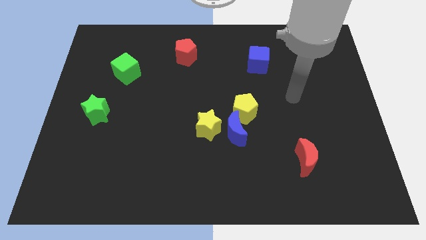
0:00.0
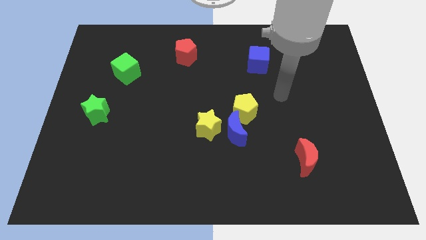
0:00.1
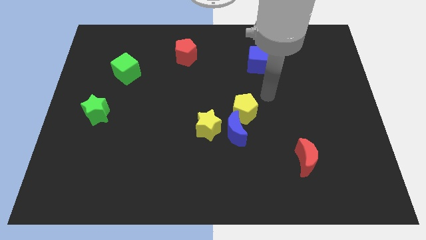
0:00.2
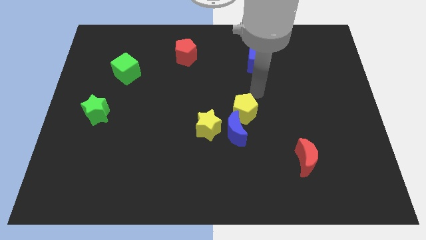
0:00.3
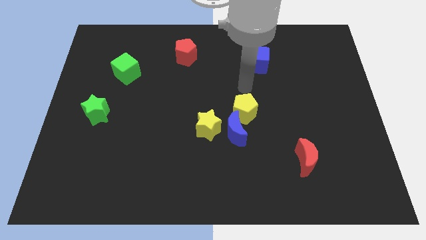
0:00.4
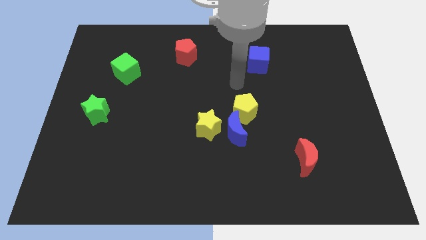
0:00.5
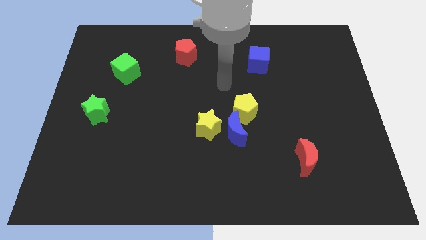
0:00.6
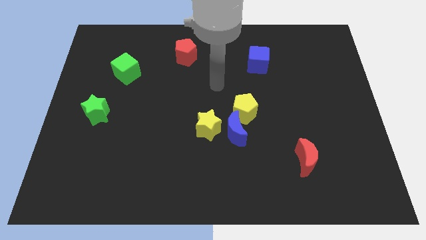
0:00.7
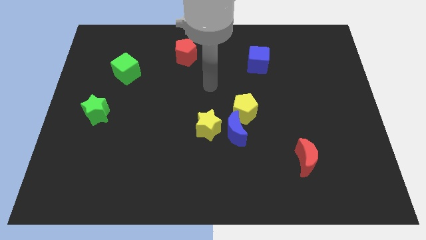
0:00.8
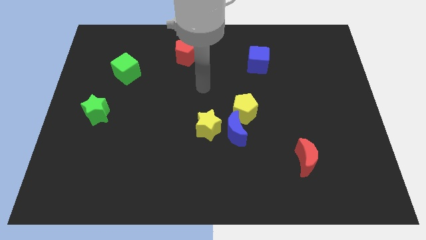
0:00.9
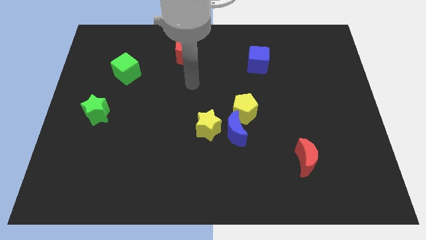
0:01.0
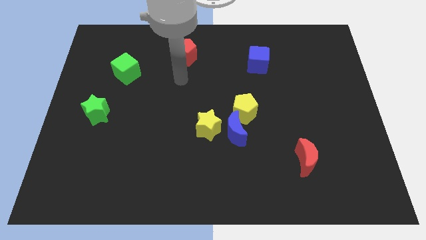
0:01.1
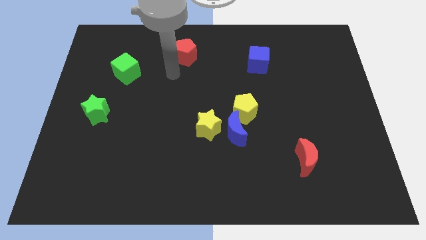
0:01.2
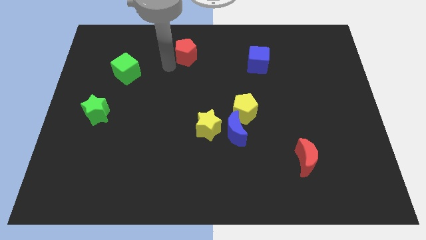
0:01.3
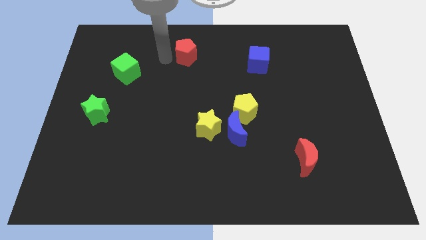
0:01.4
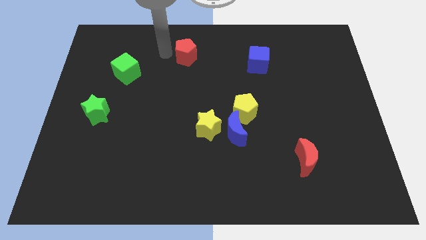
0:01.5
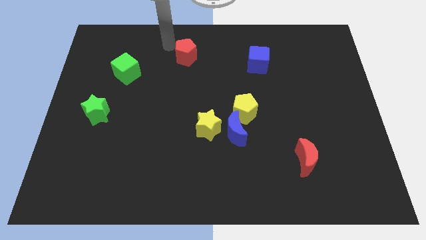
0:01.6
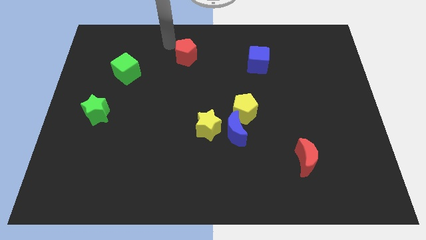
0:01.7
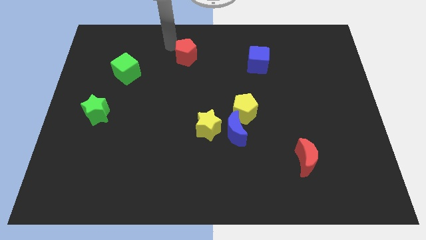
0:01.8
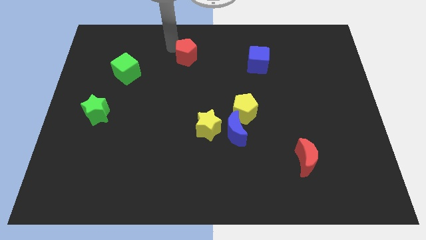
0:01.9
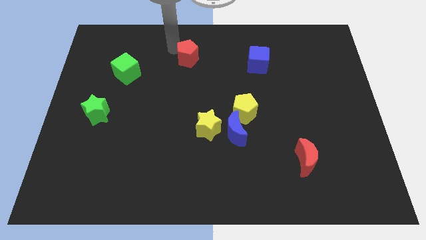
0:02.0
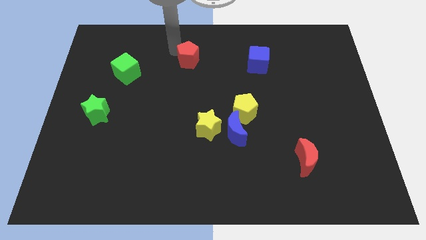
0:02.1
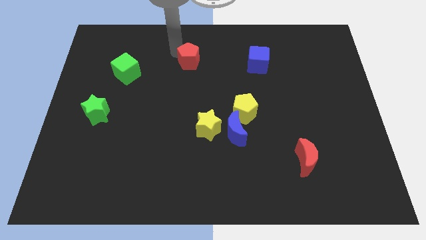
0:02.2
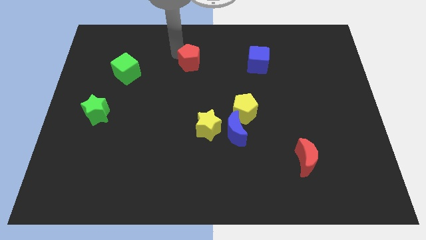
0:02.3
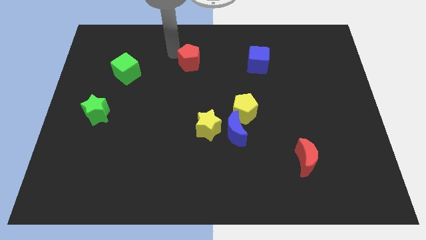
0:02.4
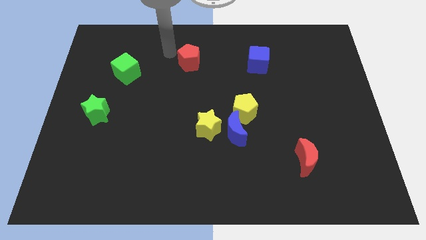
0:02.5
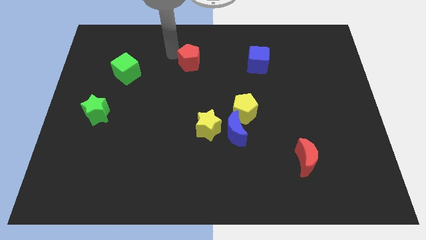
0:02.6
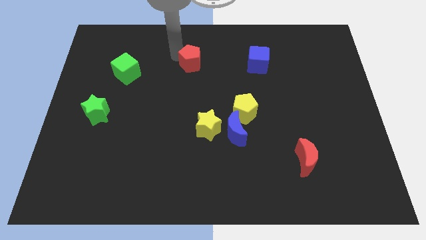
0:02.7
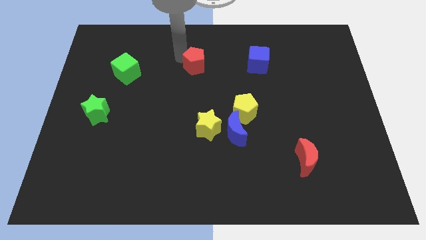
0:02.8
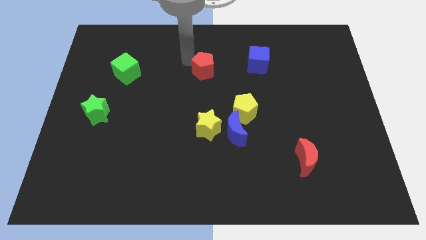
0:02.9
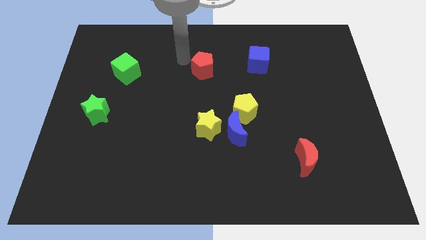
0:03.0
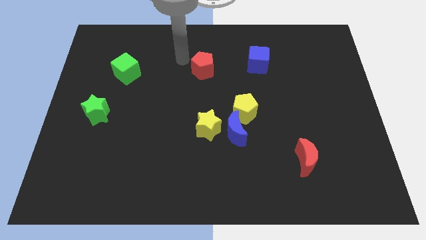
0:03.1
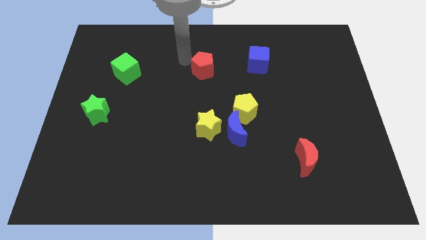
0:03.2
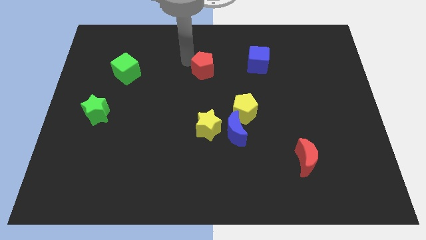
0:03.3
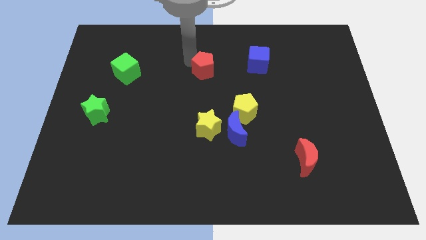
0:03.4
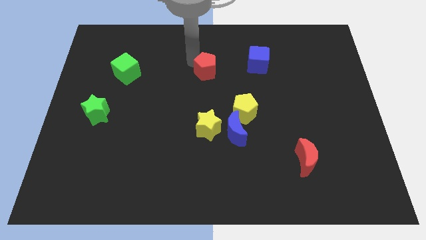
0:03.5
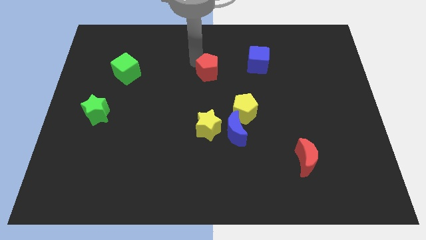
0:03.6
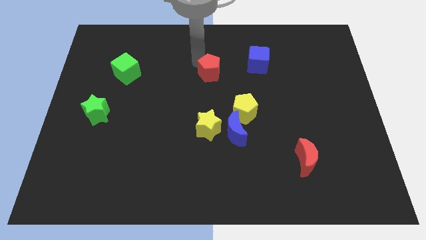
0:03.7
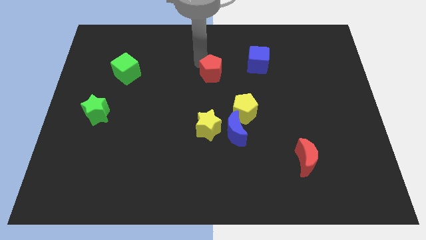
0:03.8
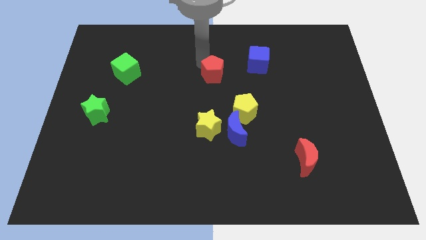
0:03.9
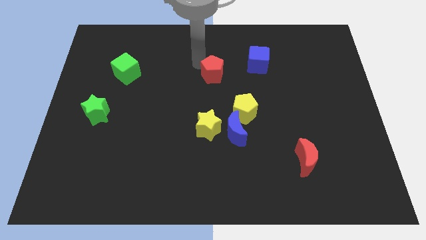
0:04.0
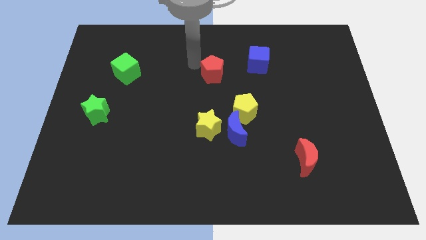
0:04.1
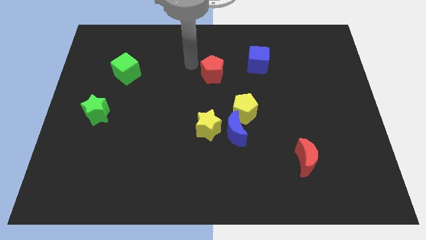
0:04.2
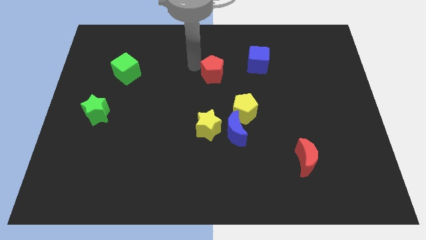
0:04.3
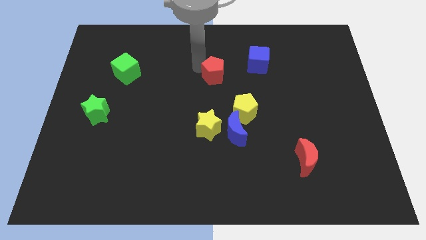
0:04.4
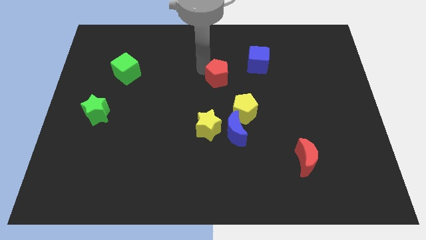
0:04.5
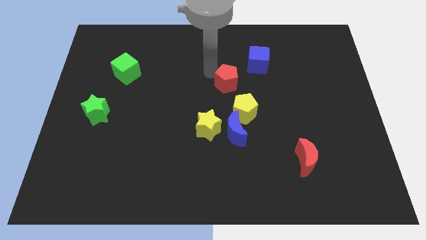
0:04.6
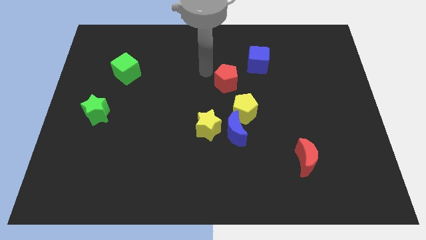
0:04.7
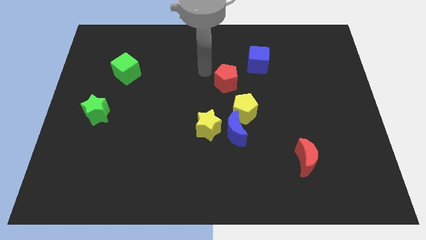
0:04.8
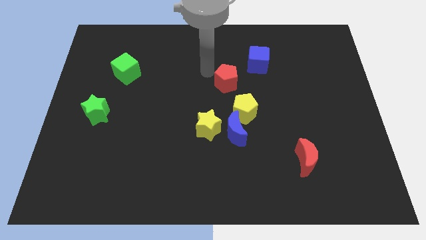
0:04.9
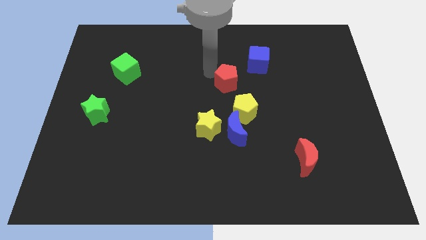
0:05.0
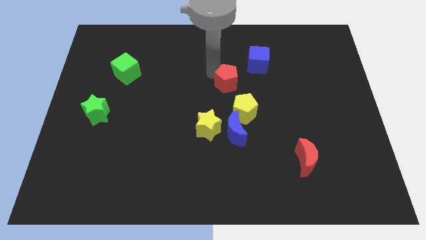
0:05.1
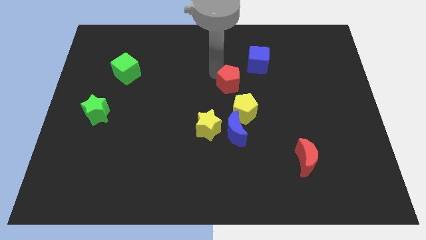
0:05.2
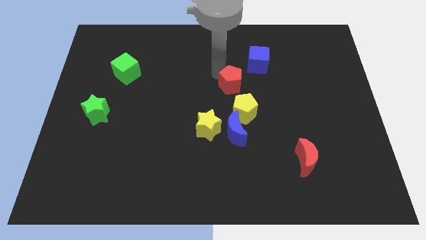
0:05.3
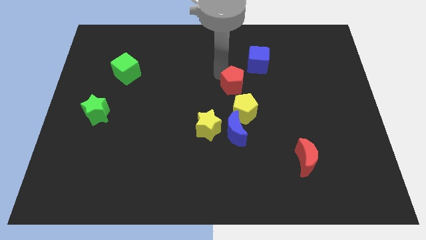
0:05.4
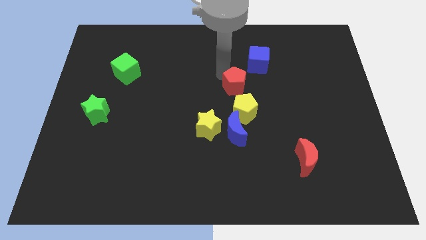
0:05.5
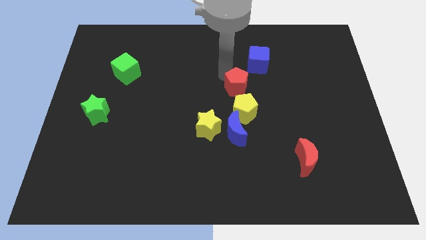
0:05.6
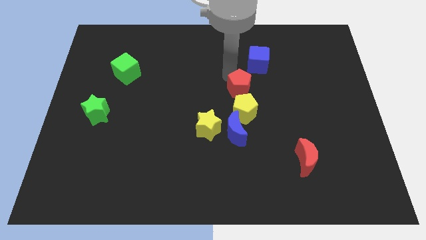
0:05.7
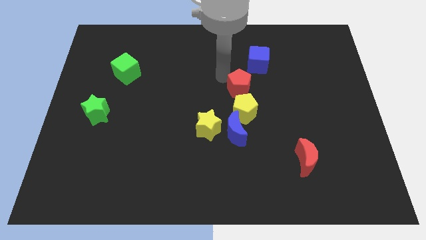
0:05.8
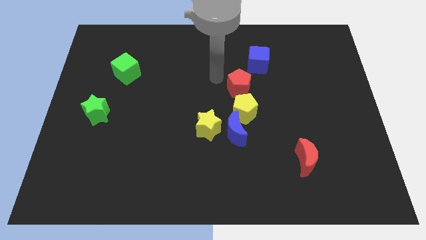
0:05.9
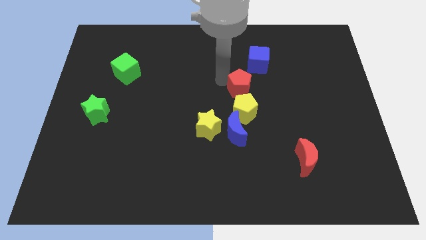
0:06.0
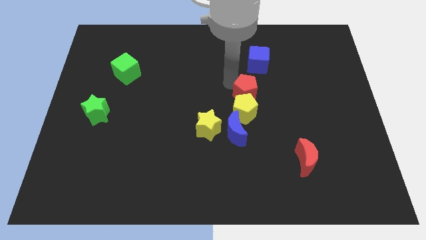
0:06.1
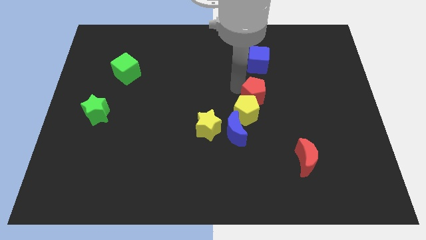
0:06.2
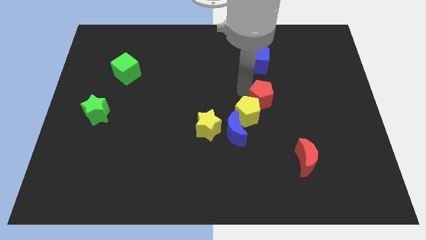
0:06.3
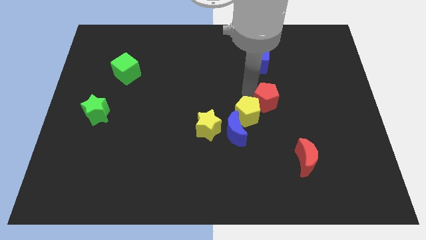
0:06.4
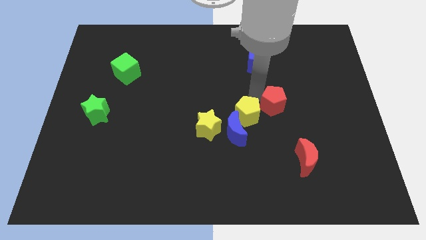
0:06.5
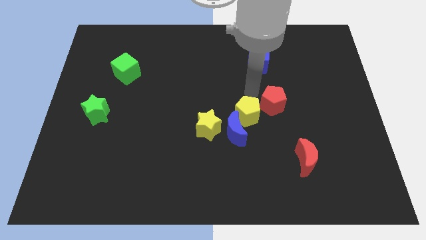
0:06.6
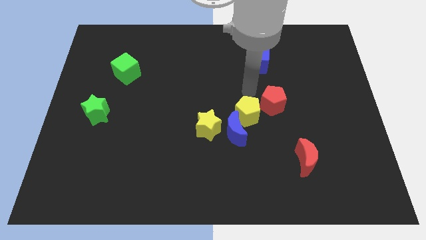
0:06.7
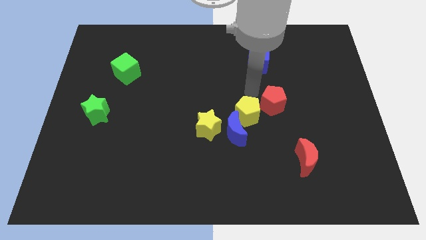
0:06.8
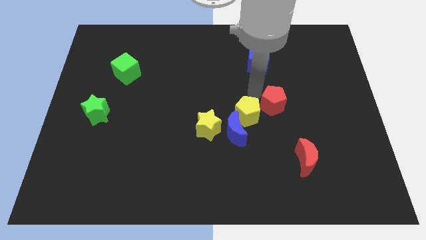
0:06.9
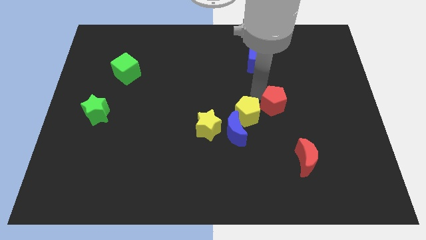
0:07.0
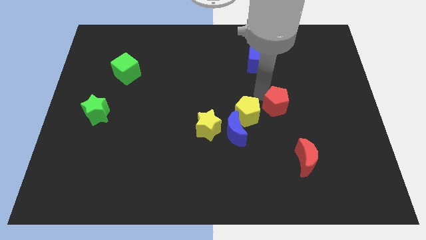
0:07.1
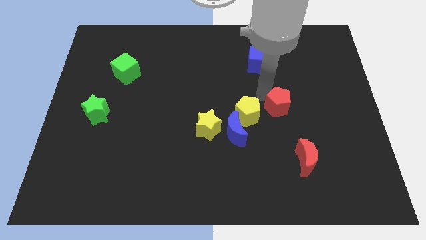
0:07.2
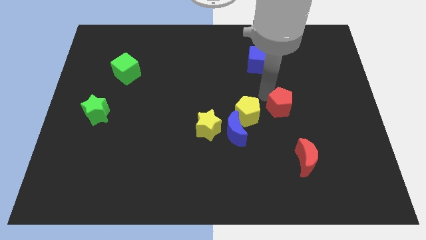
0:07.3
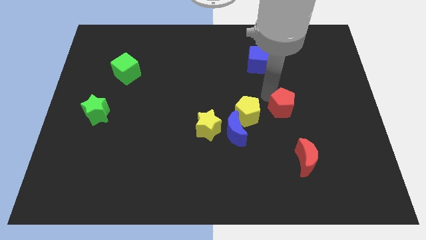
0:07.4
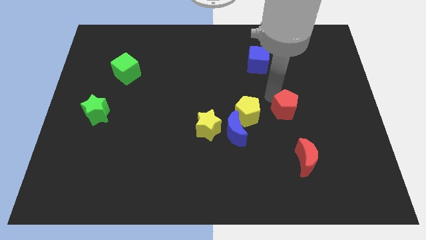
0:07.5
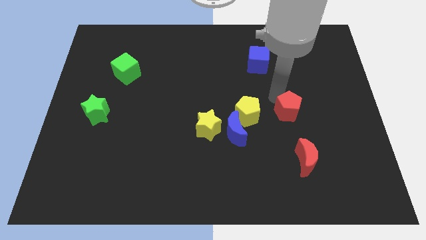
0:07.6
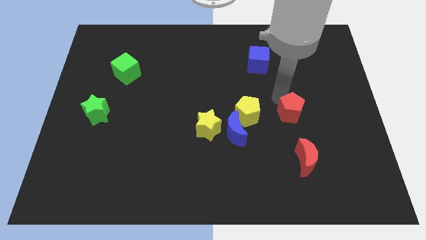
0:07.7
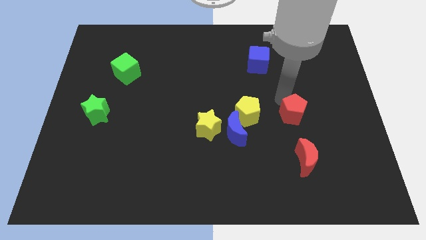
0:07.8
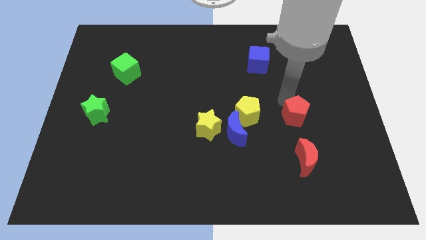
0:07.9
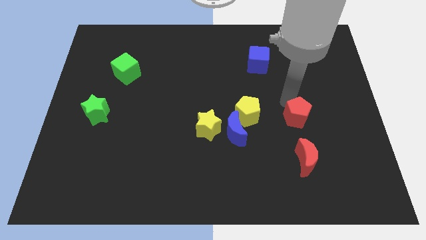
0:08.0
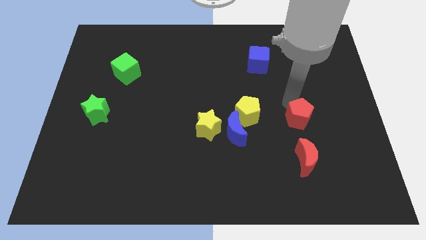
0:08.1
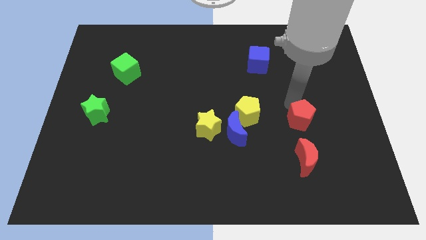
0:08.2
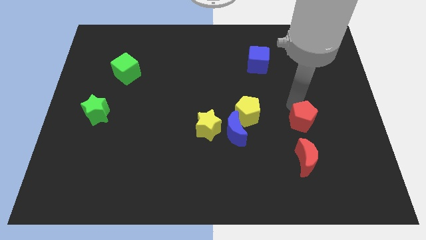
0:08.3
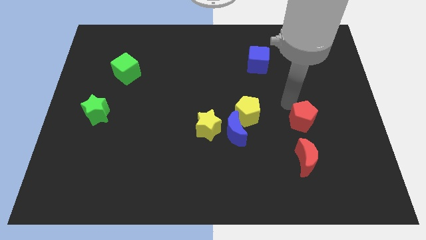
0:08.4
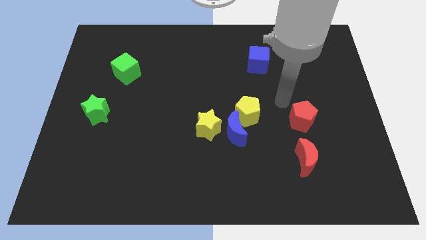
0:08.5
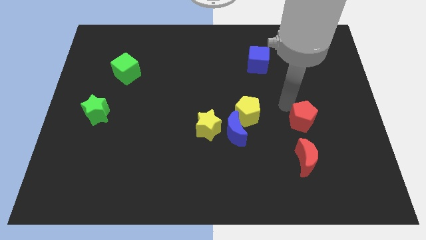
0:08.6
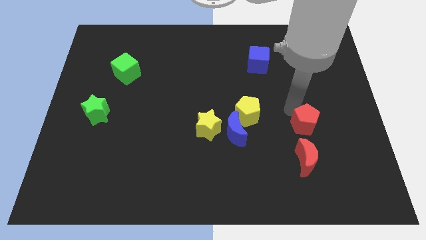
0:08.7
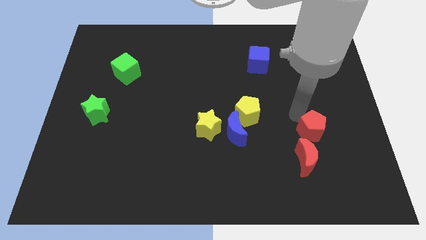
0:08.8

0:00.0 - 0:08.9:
move the red pentagon to the top right side of the red moon
